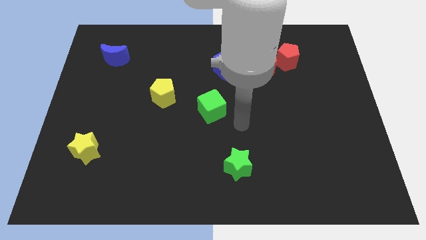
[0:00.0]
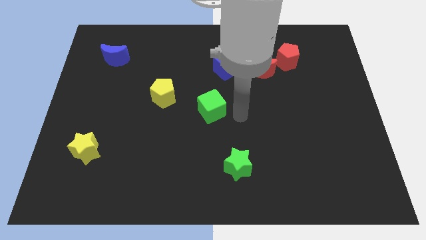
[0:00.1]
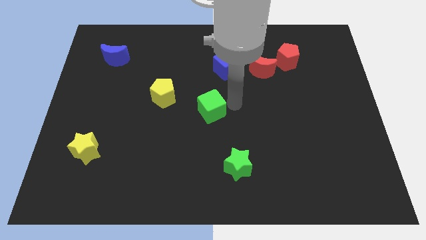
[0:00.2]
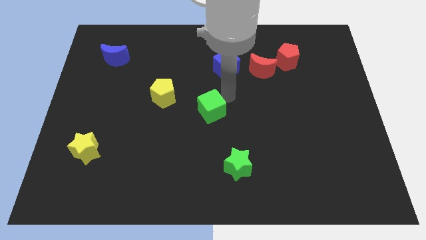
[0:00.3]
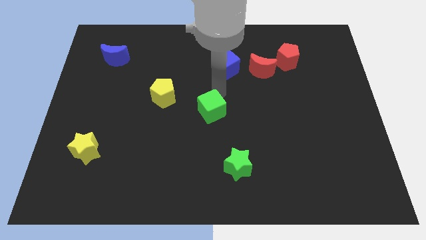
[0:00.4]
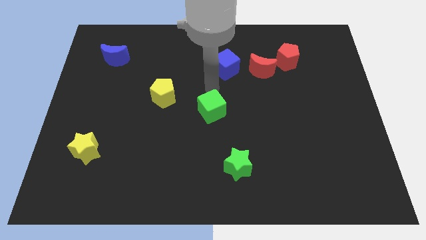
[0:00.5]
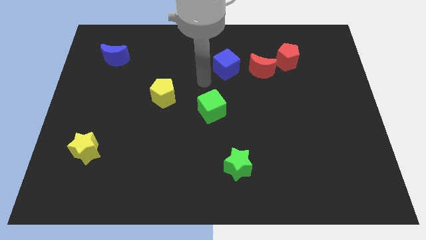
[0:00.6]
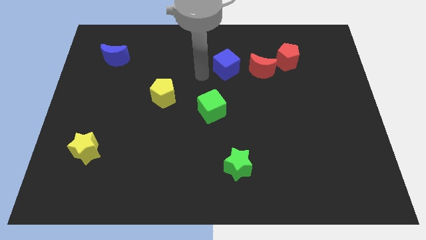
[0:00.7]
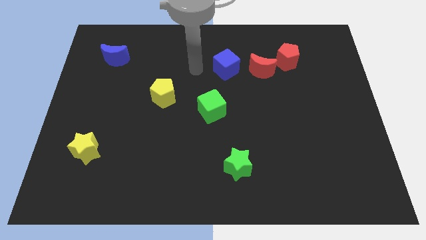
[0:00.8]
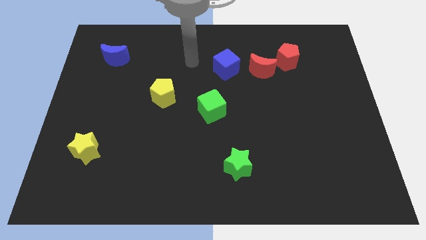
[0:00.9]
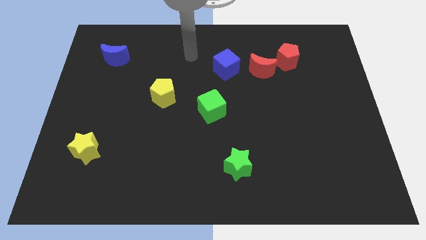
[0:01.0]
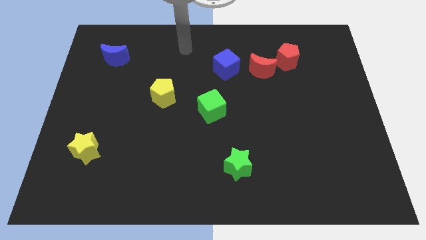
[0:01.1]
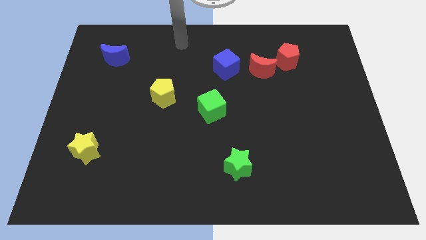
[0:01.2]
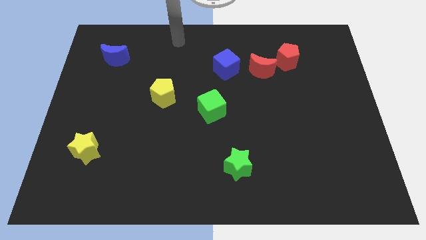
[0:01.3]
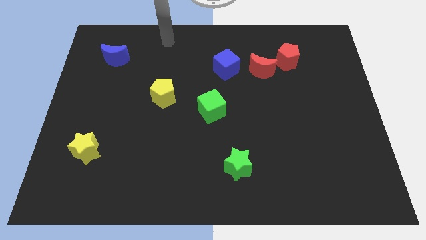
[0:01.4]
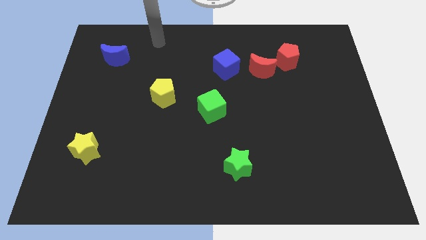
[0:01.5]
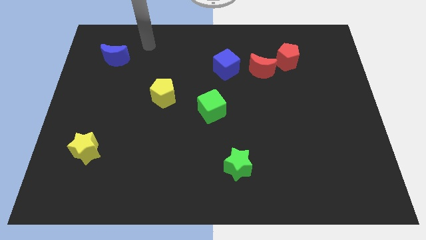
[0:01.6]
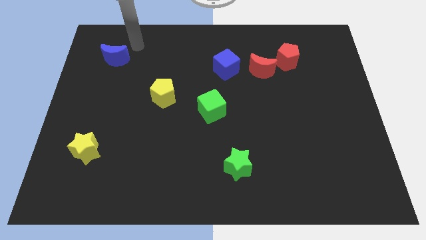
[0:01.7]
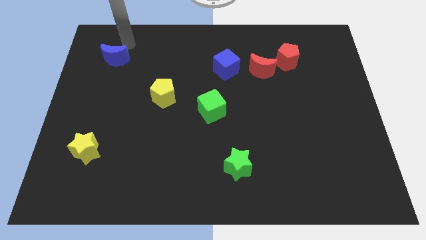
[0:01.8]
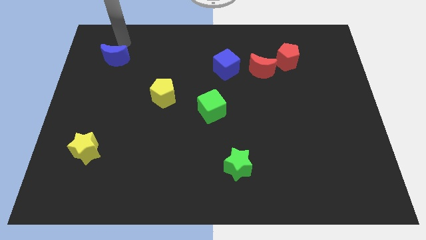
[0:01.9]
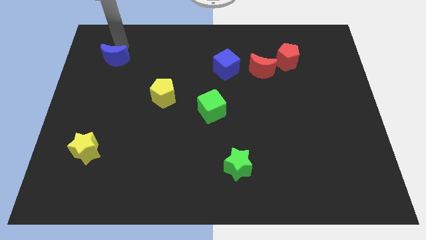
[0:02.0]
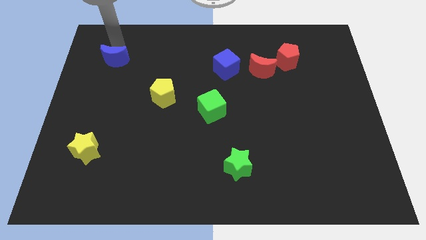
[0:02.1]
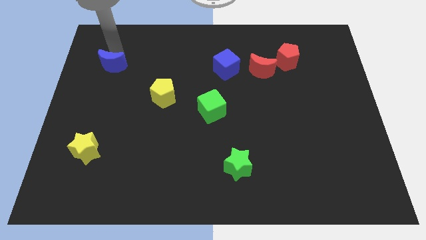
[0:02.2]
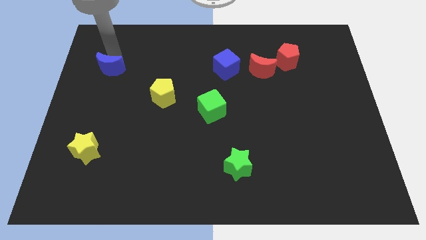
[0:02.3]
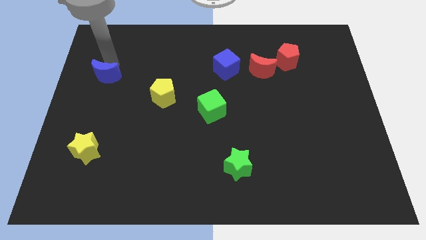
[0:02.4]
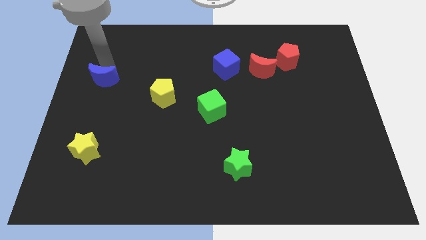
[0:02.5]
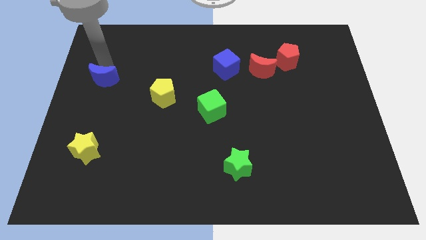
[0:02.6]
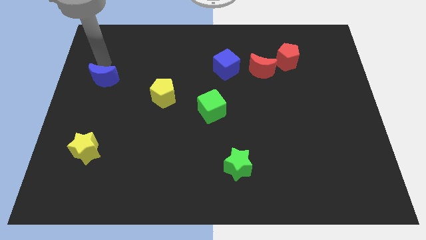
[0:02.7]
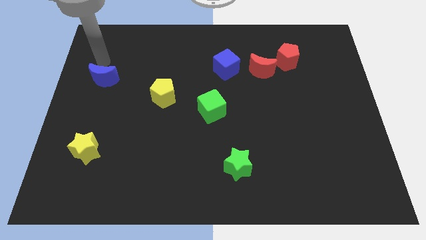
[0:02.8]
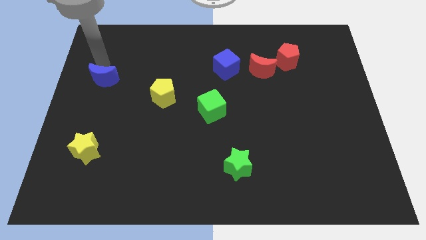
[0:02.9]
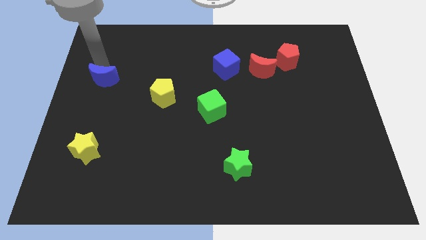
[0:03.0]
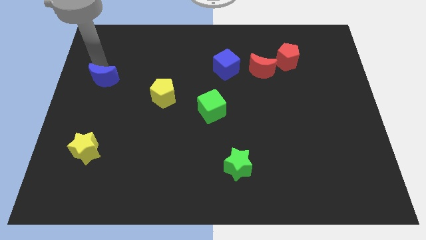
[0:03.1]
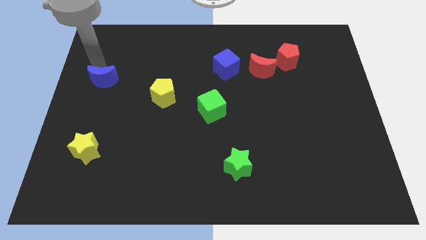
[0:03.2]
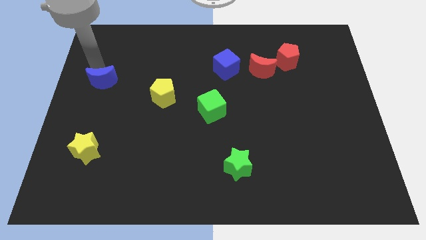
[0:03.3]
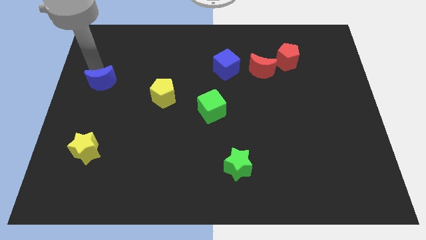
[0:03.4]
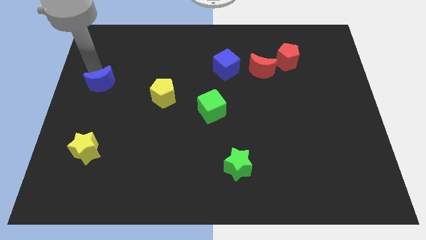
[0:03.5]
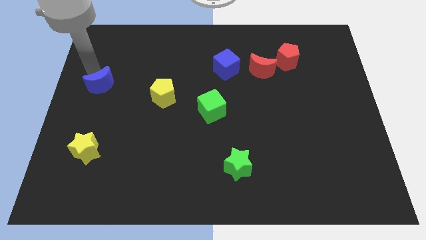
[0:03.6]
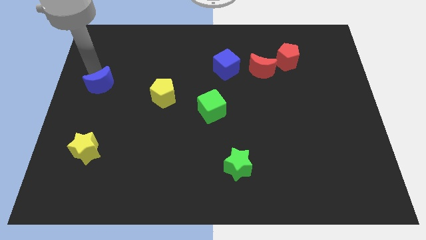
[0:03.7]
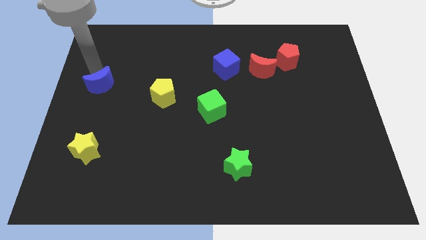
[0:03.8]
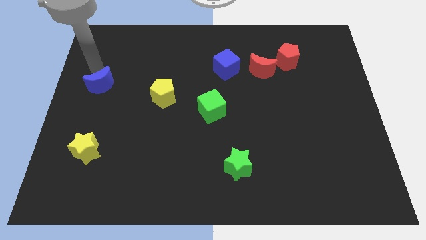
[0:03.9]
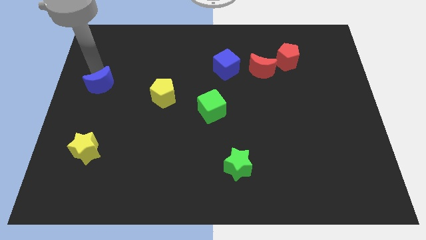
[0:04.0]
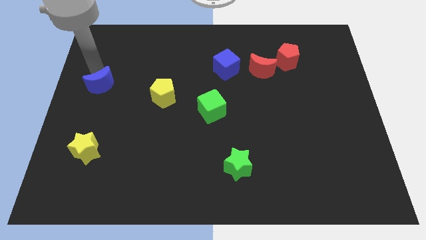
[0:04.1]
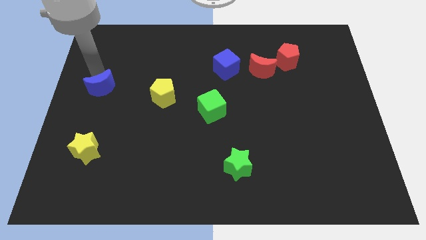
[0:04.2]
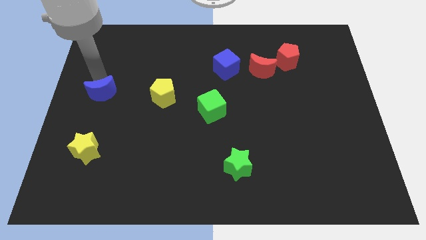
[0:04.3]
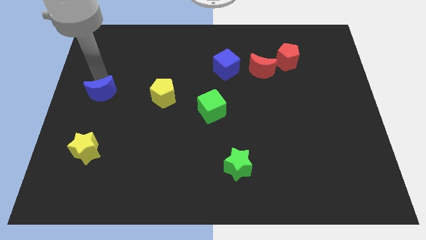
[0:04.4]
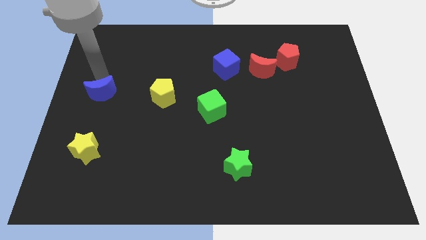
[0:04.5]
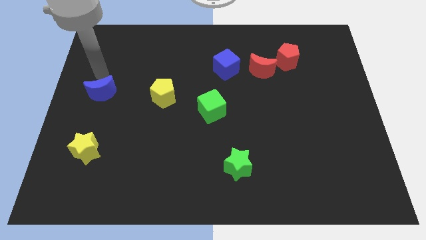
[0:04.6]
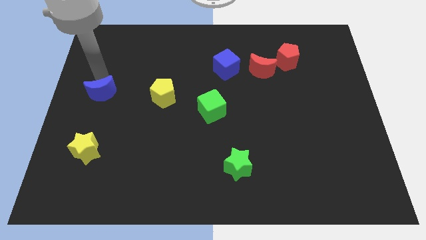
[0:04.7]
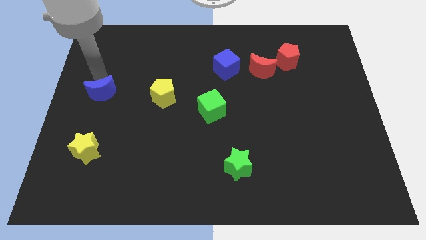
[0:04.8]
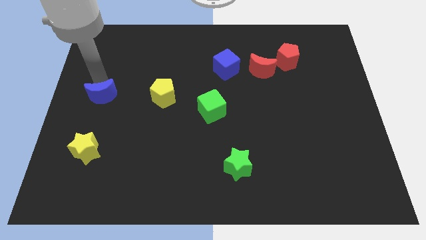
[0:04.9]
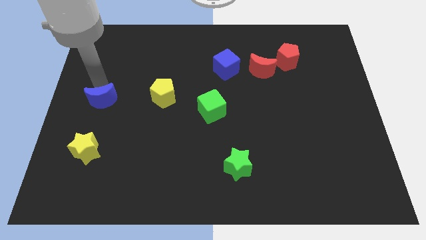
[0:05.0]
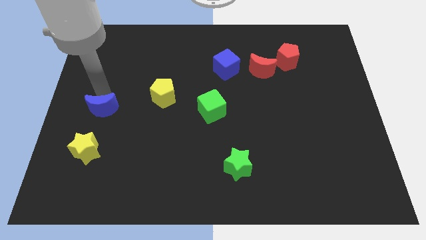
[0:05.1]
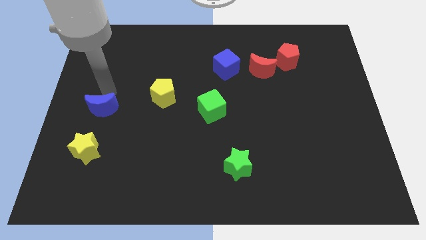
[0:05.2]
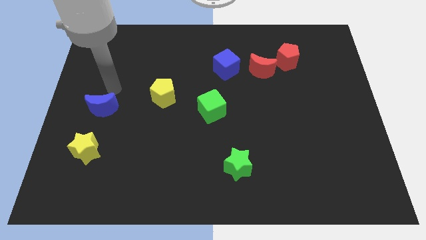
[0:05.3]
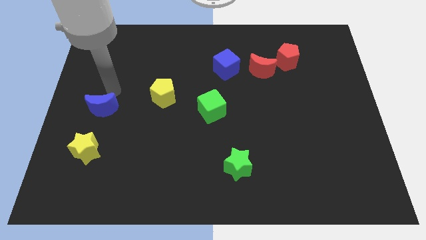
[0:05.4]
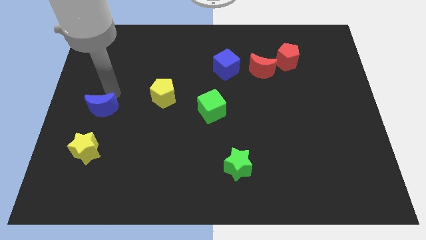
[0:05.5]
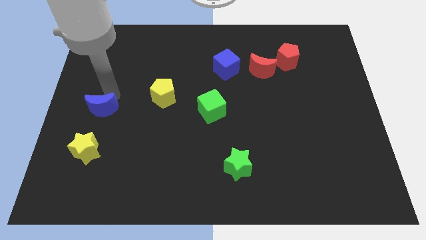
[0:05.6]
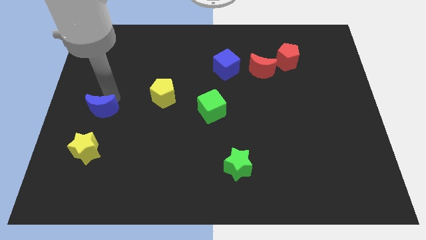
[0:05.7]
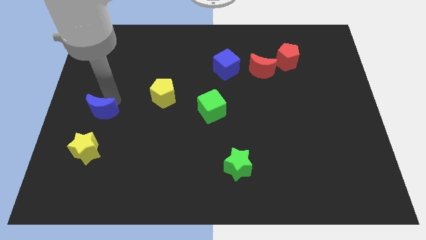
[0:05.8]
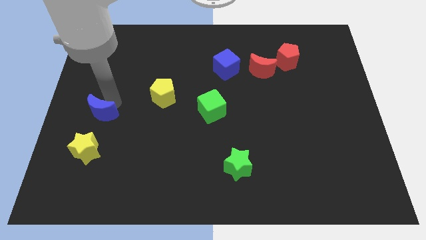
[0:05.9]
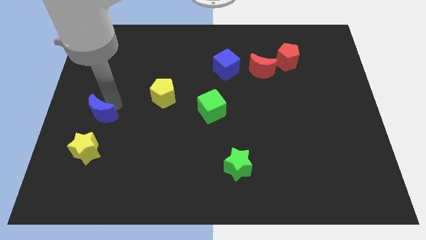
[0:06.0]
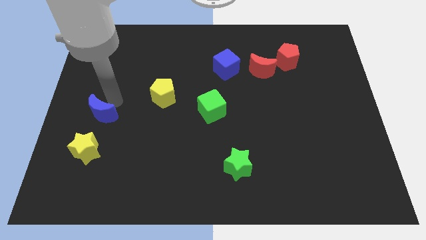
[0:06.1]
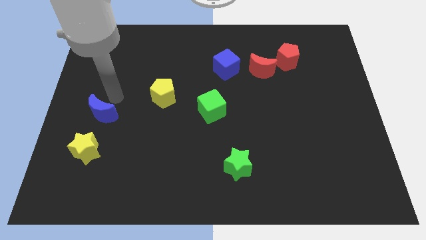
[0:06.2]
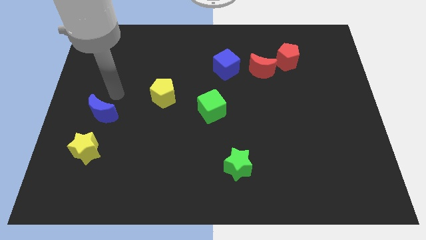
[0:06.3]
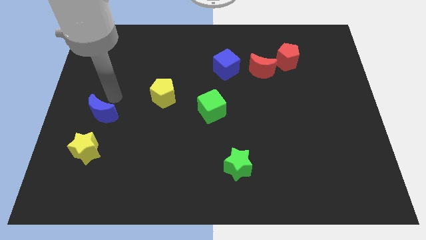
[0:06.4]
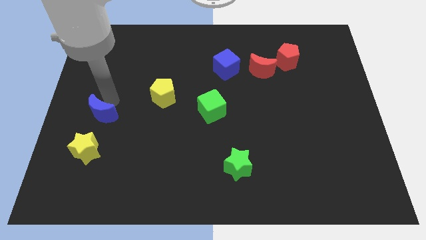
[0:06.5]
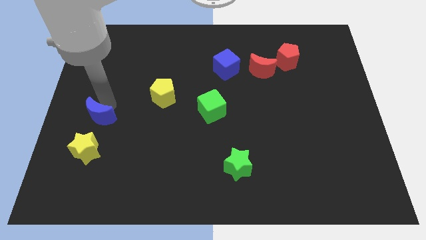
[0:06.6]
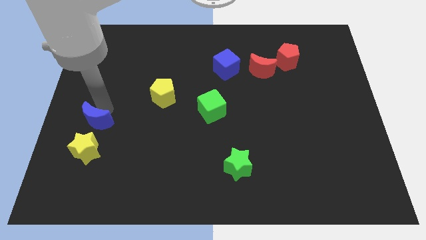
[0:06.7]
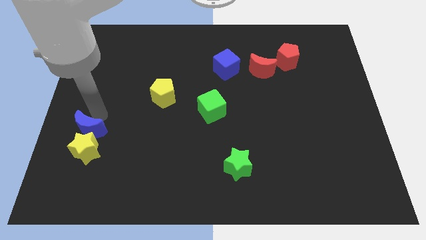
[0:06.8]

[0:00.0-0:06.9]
push the blue moon close to the yellow star
